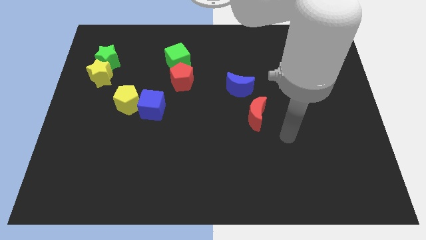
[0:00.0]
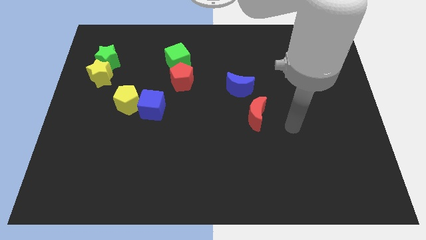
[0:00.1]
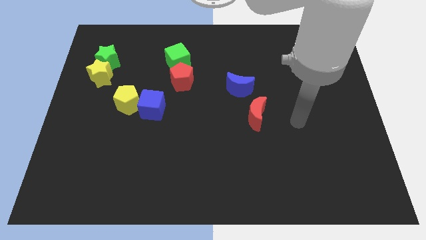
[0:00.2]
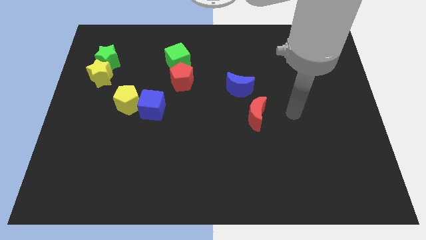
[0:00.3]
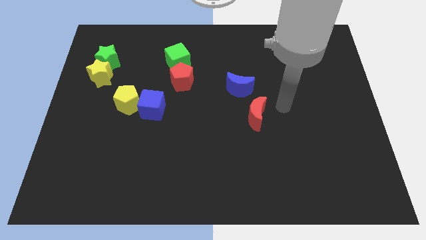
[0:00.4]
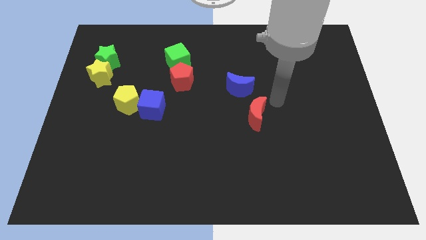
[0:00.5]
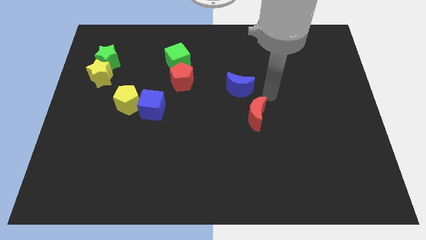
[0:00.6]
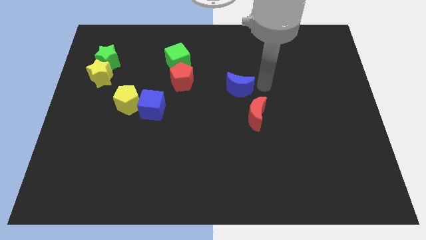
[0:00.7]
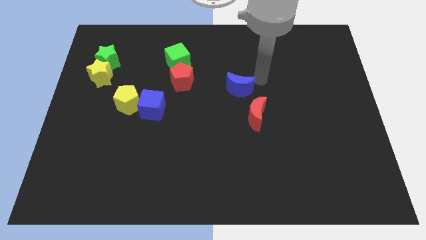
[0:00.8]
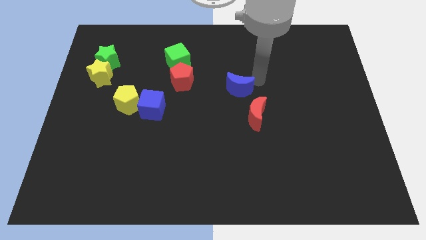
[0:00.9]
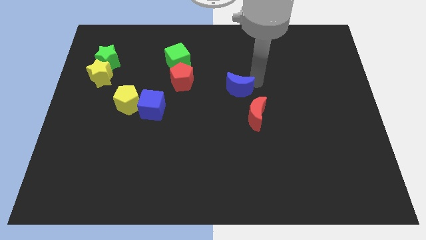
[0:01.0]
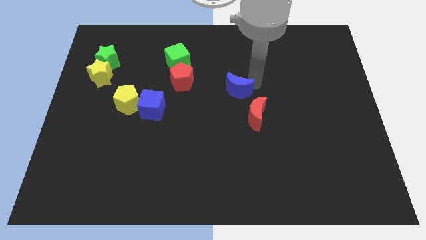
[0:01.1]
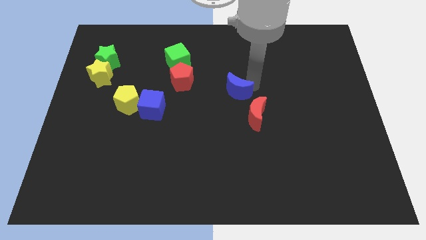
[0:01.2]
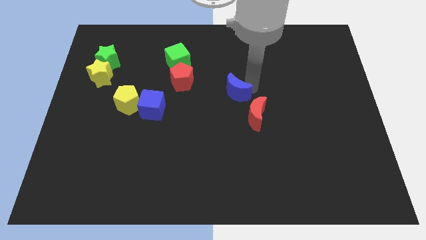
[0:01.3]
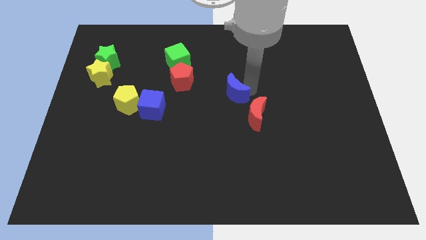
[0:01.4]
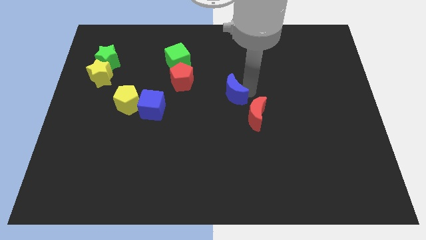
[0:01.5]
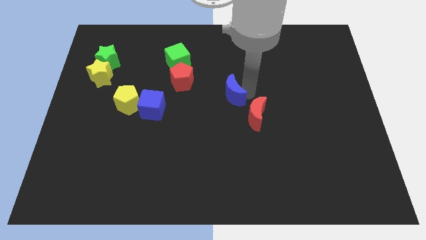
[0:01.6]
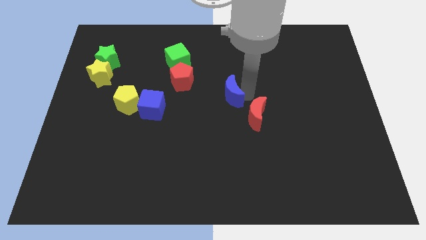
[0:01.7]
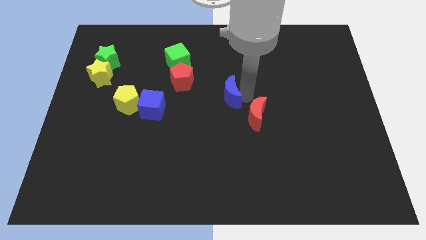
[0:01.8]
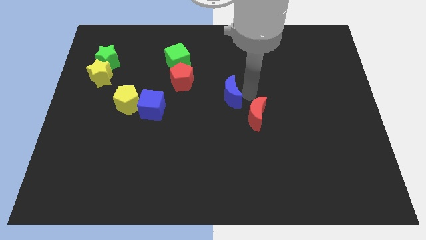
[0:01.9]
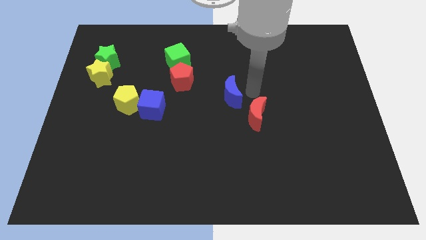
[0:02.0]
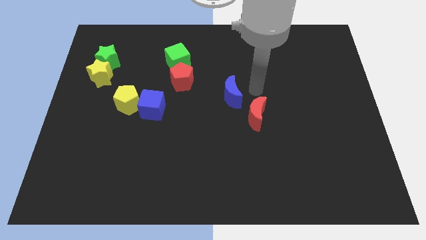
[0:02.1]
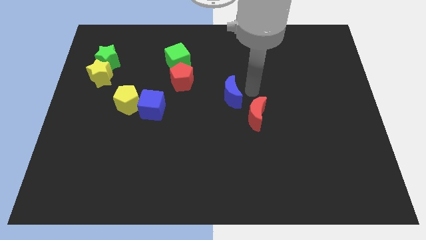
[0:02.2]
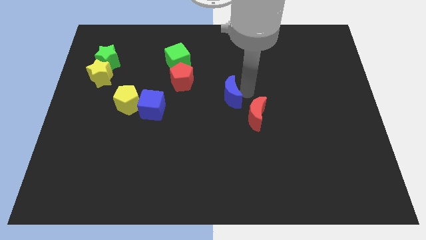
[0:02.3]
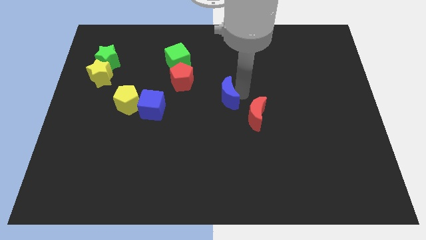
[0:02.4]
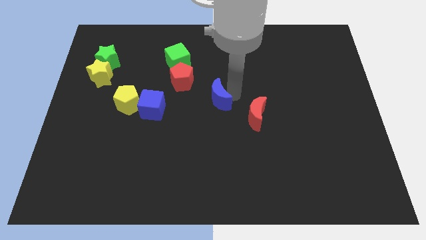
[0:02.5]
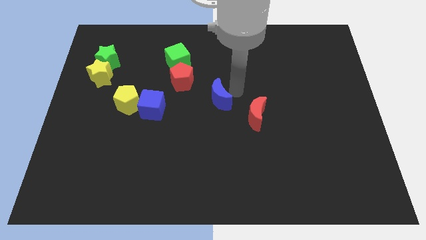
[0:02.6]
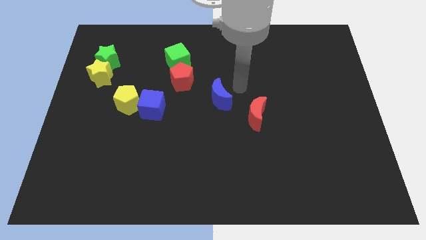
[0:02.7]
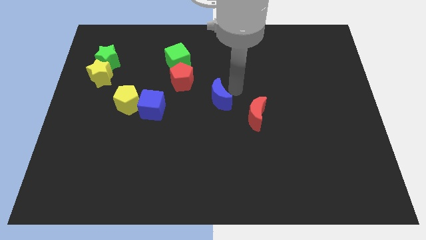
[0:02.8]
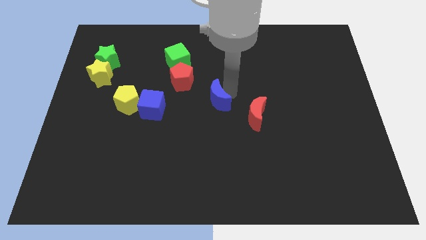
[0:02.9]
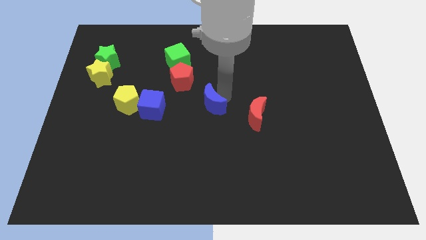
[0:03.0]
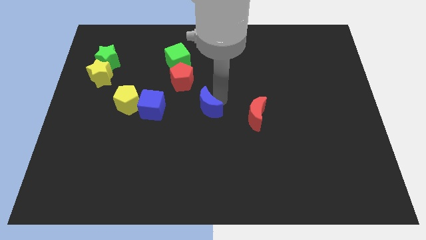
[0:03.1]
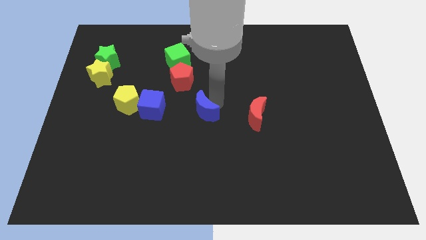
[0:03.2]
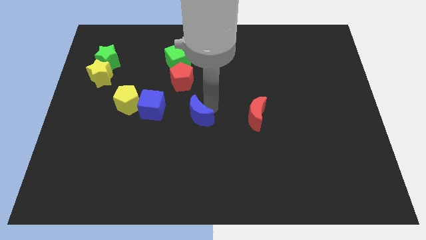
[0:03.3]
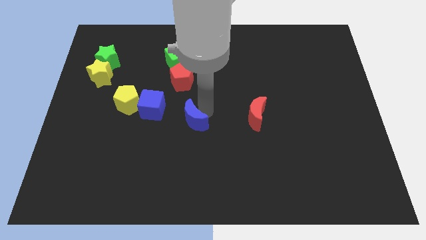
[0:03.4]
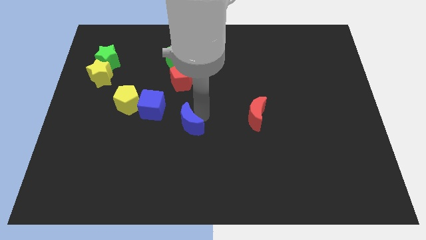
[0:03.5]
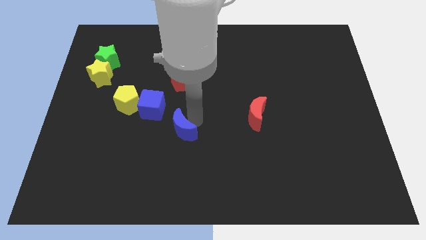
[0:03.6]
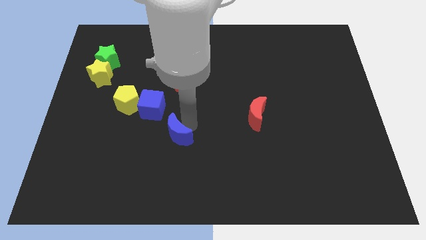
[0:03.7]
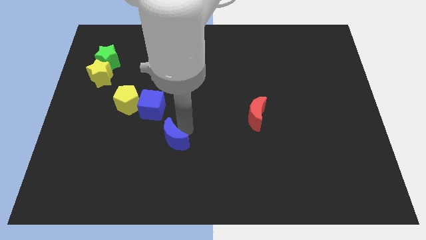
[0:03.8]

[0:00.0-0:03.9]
push the blue moon downwards and left

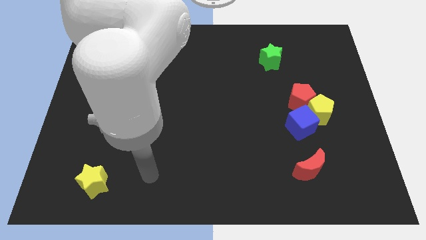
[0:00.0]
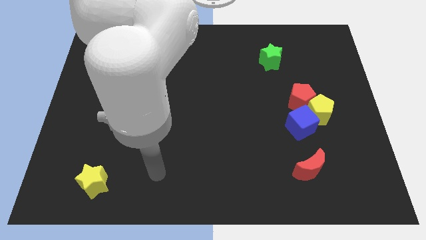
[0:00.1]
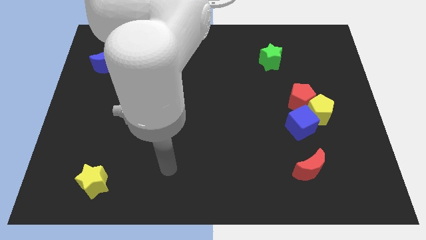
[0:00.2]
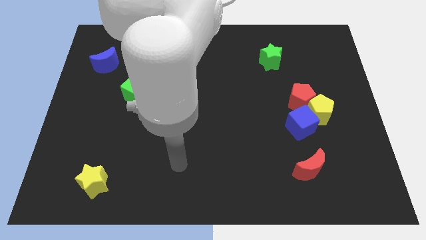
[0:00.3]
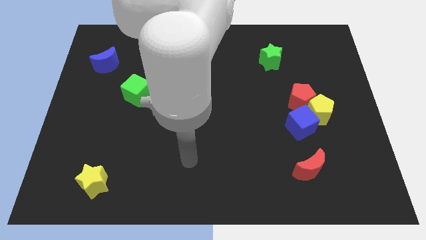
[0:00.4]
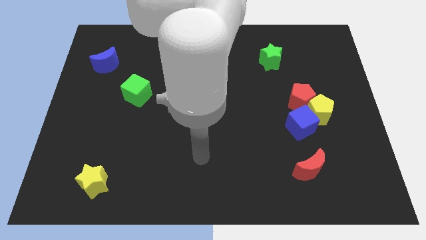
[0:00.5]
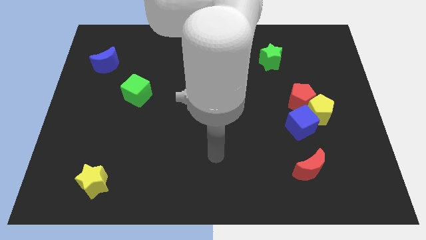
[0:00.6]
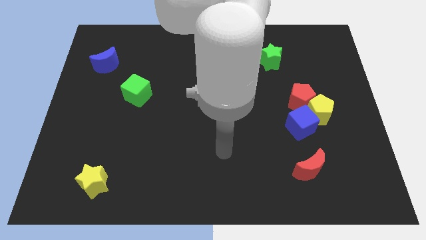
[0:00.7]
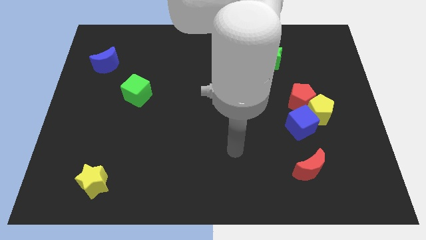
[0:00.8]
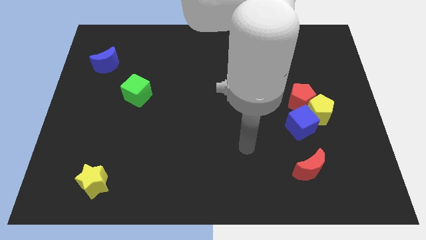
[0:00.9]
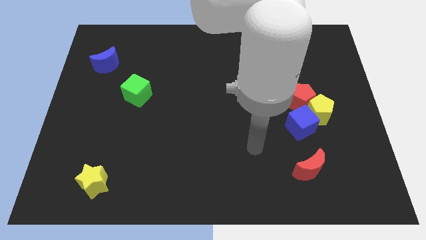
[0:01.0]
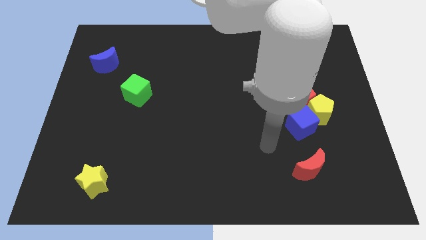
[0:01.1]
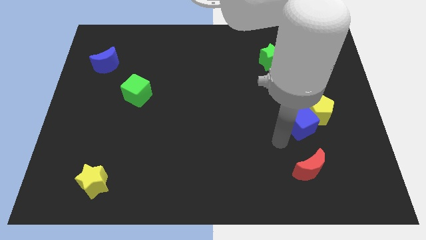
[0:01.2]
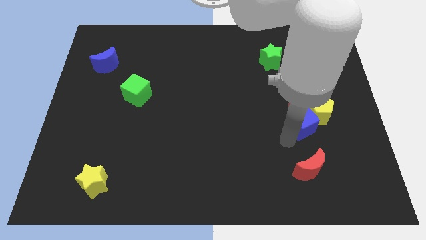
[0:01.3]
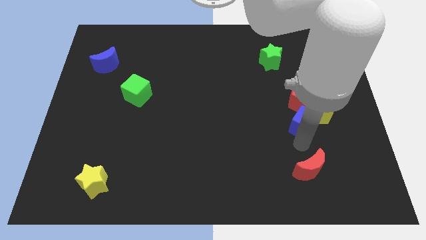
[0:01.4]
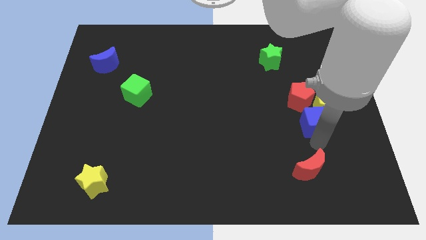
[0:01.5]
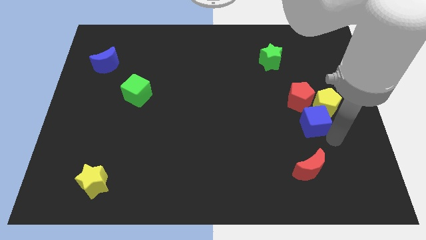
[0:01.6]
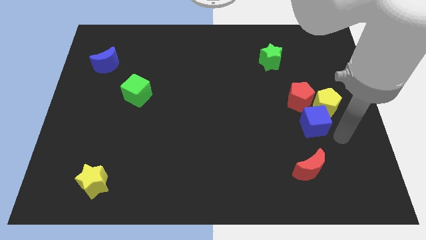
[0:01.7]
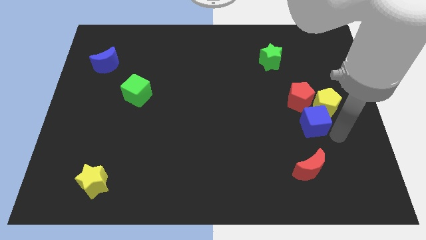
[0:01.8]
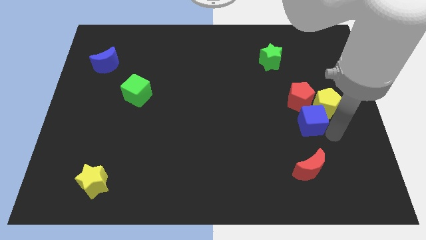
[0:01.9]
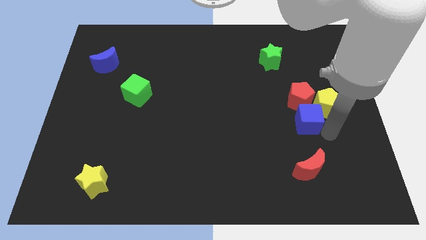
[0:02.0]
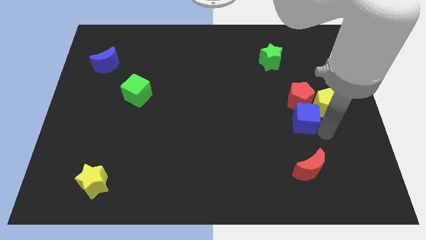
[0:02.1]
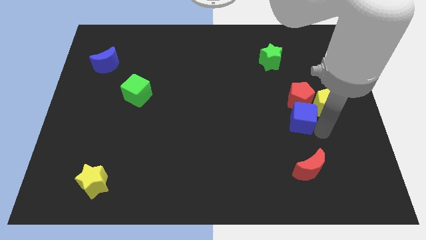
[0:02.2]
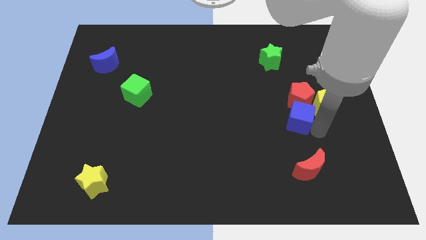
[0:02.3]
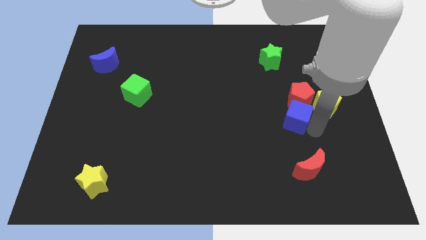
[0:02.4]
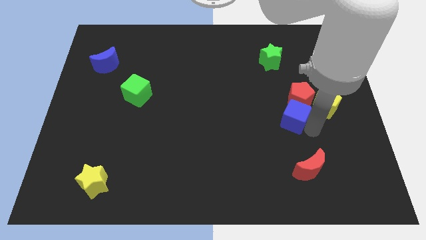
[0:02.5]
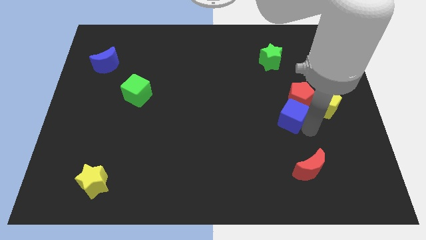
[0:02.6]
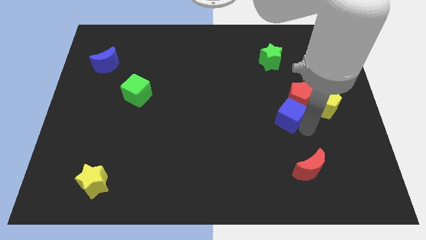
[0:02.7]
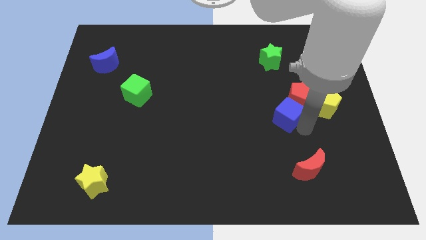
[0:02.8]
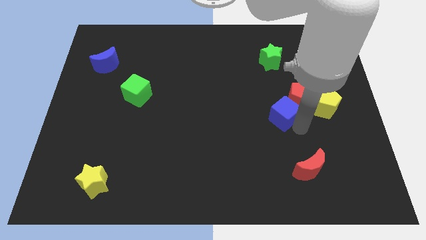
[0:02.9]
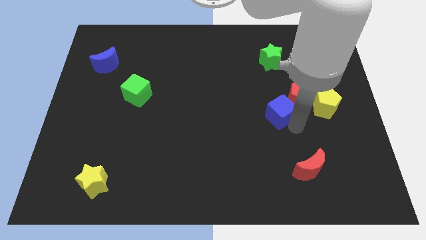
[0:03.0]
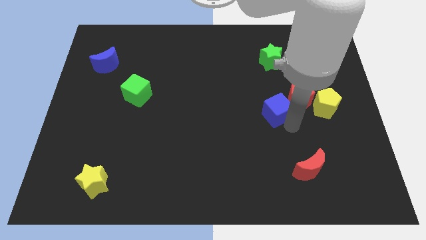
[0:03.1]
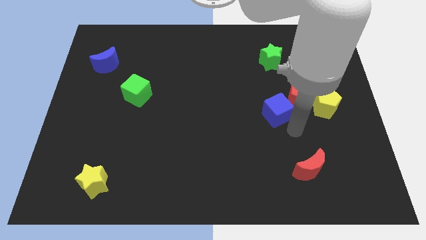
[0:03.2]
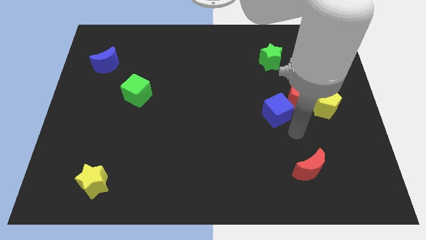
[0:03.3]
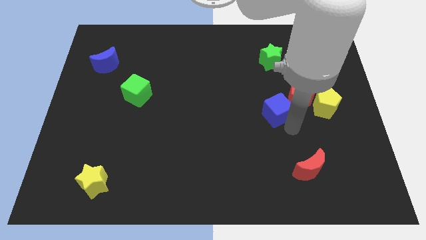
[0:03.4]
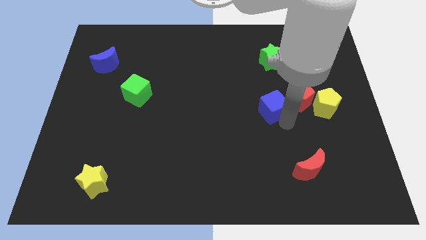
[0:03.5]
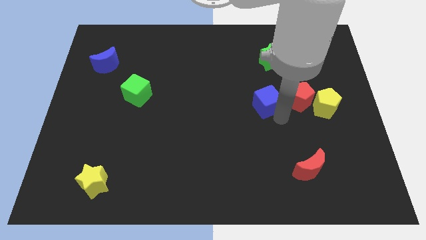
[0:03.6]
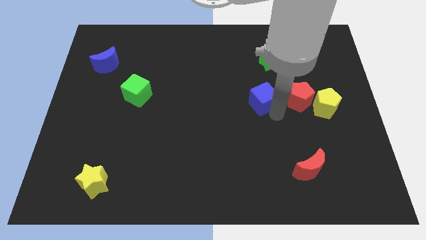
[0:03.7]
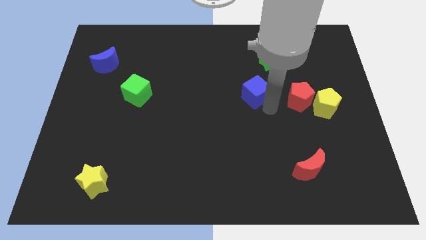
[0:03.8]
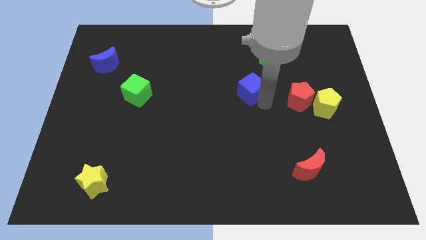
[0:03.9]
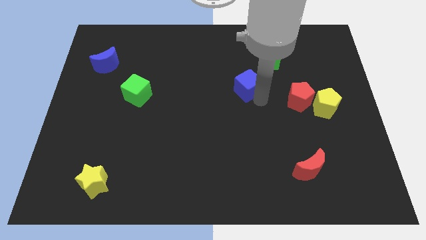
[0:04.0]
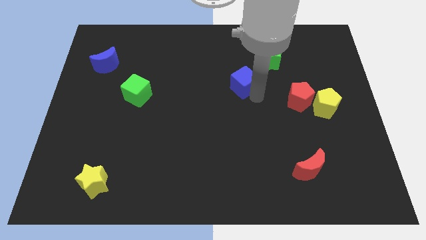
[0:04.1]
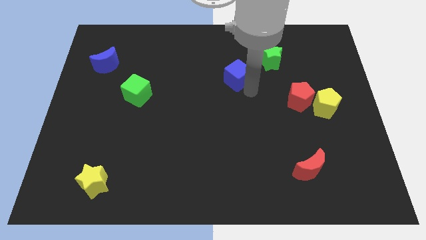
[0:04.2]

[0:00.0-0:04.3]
push the blue cube up and then left
